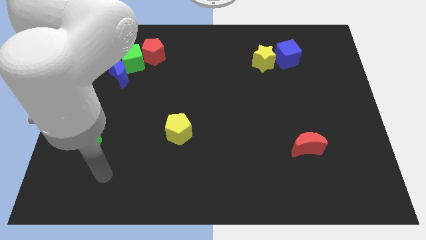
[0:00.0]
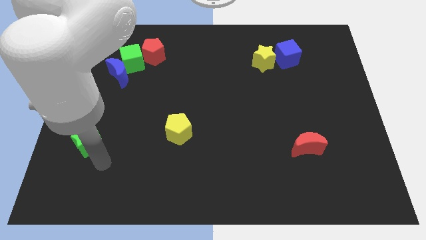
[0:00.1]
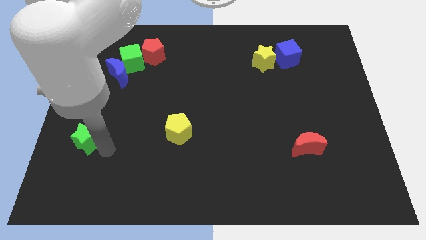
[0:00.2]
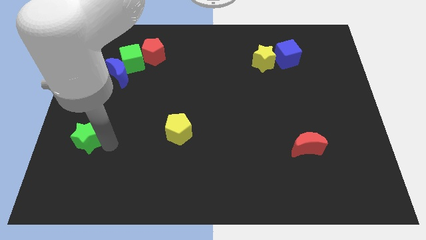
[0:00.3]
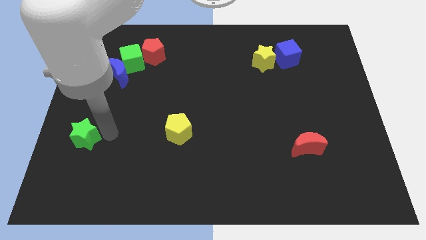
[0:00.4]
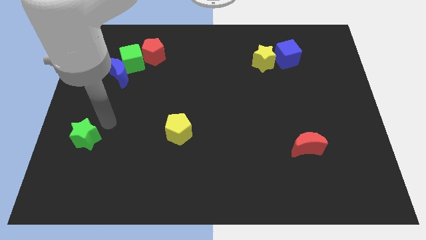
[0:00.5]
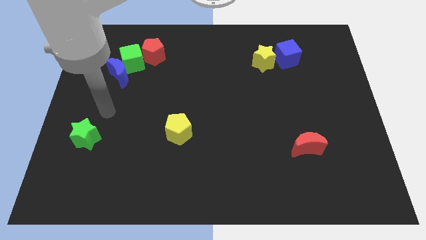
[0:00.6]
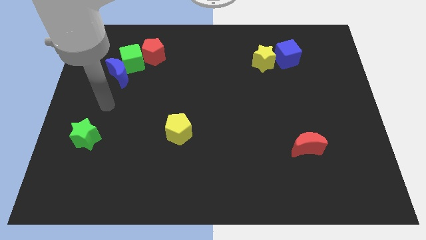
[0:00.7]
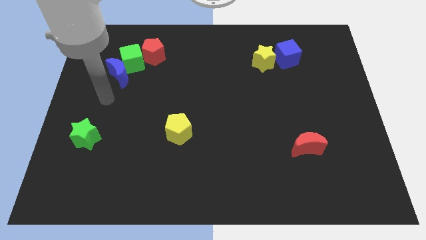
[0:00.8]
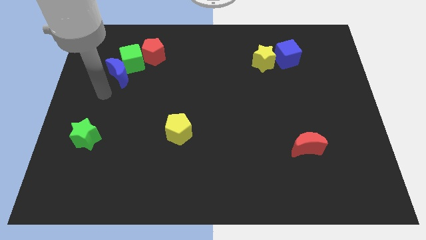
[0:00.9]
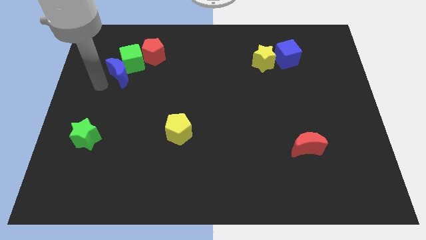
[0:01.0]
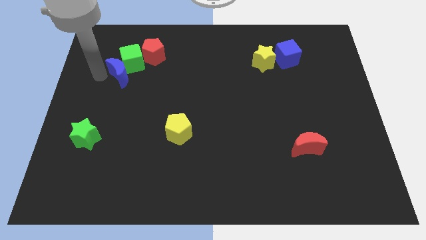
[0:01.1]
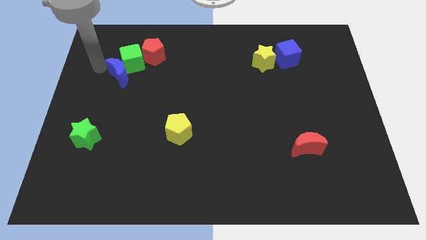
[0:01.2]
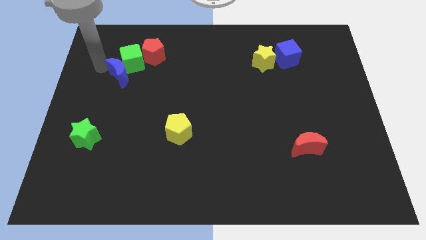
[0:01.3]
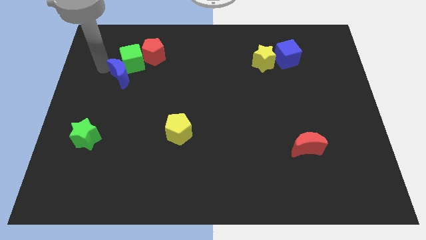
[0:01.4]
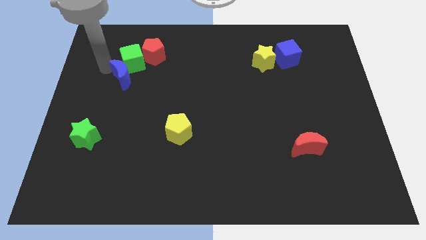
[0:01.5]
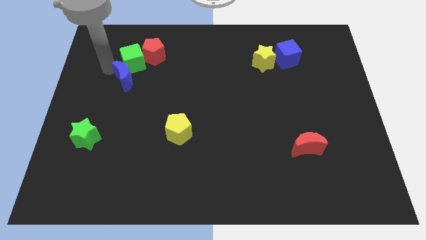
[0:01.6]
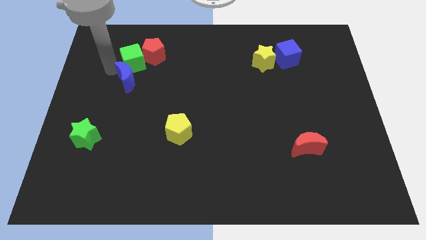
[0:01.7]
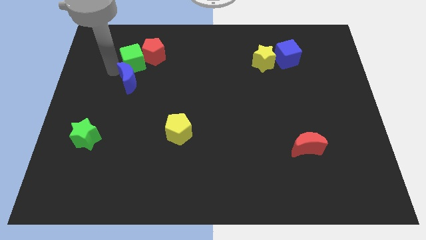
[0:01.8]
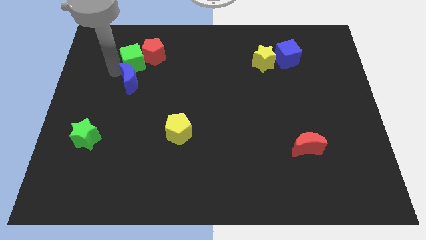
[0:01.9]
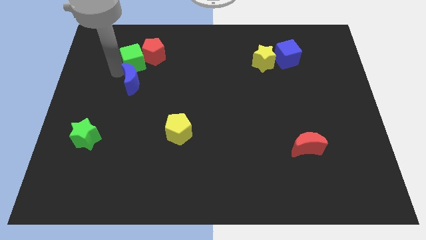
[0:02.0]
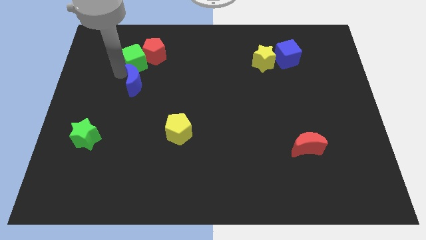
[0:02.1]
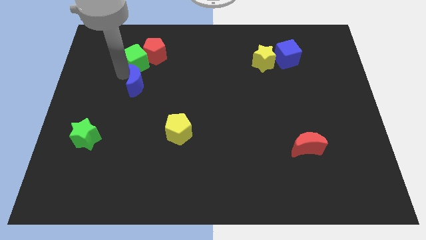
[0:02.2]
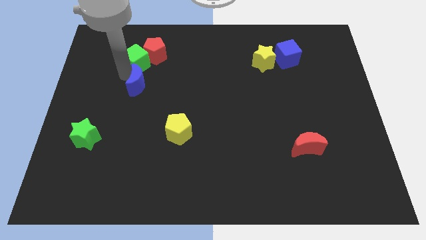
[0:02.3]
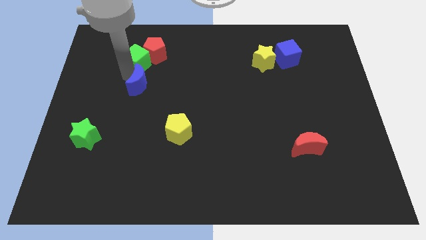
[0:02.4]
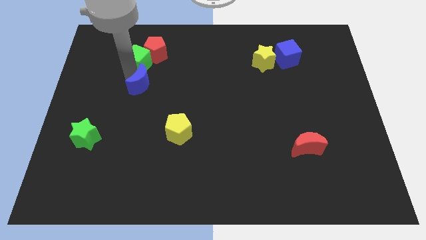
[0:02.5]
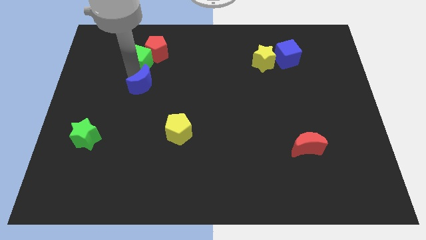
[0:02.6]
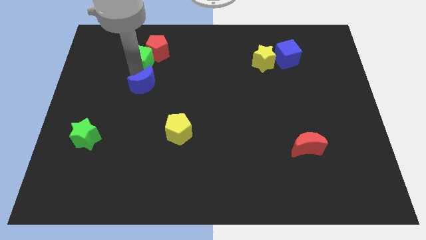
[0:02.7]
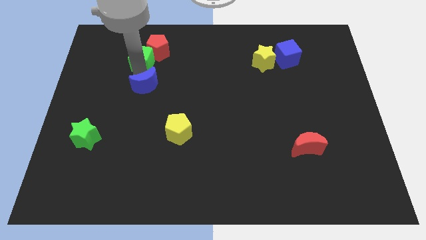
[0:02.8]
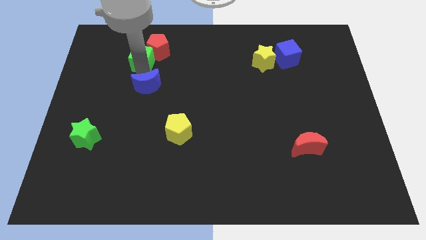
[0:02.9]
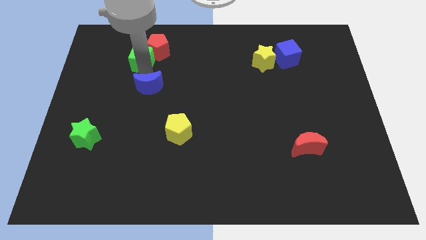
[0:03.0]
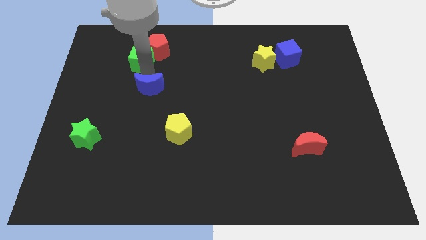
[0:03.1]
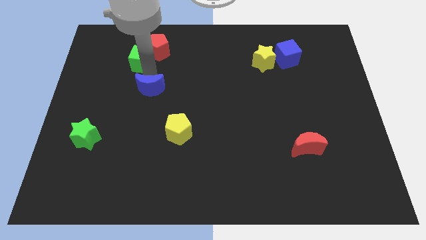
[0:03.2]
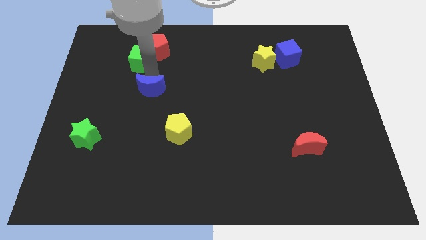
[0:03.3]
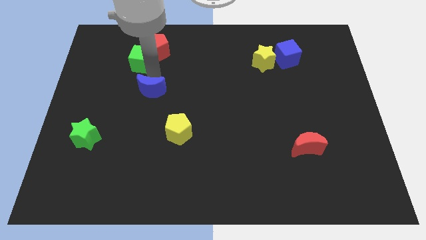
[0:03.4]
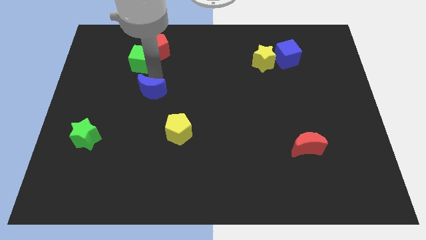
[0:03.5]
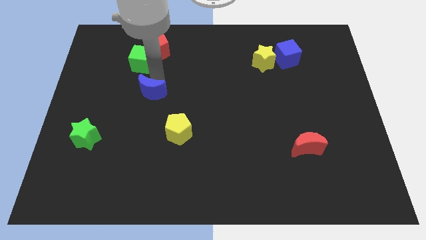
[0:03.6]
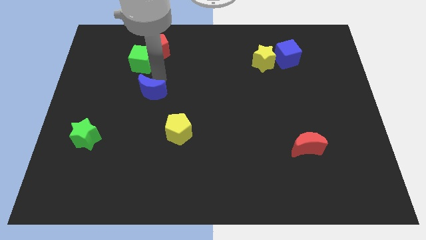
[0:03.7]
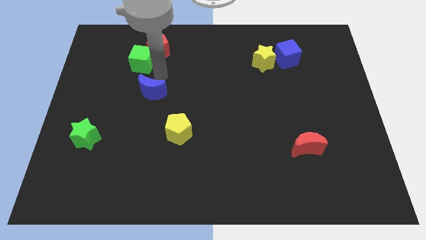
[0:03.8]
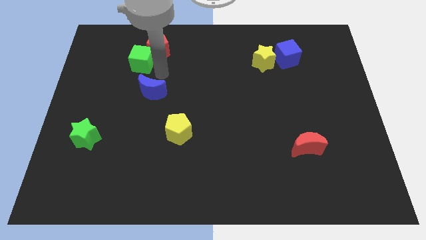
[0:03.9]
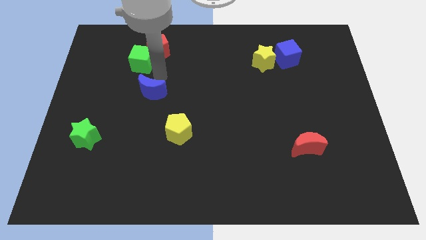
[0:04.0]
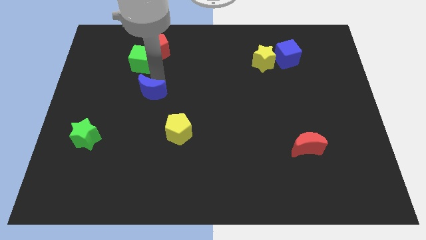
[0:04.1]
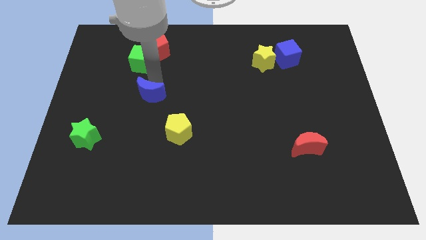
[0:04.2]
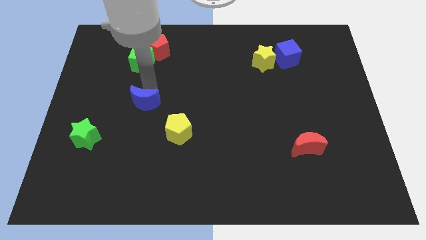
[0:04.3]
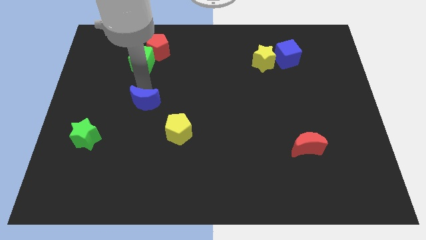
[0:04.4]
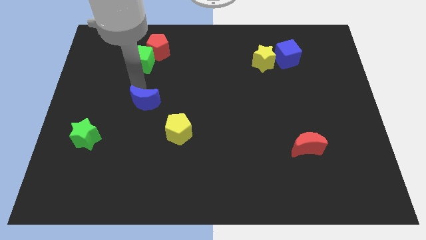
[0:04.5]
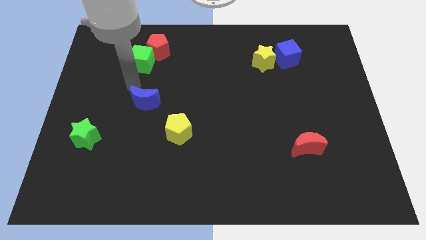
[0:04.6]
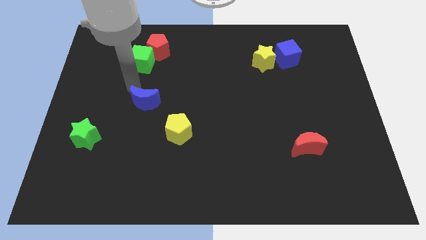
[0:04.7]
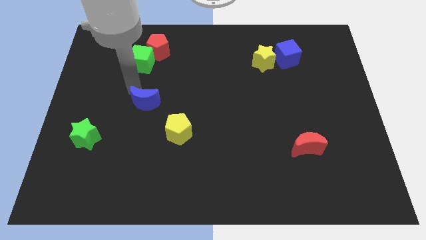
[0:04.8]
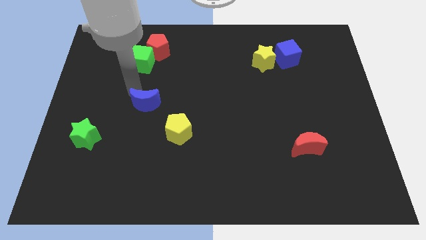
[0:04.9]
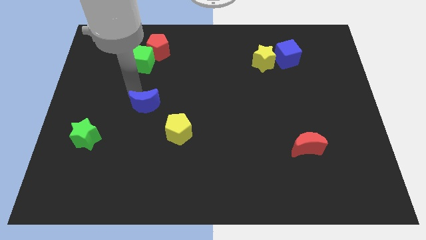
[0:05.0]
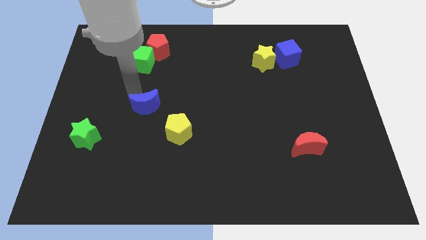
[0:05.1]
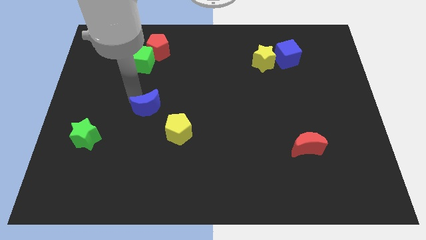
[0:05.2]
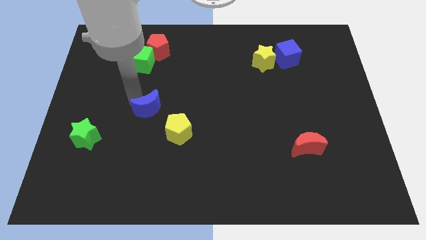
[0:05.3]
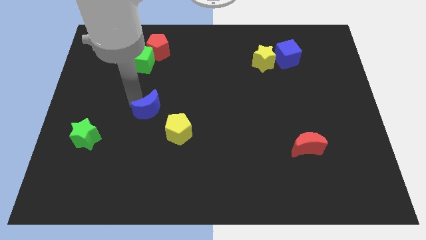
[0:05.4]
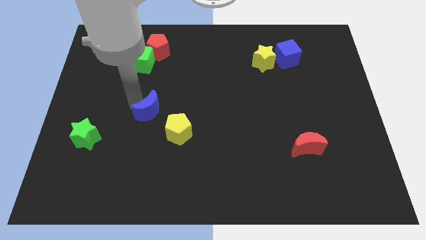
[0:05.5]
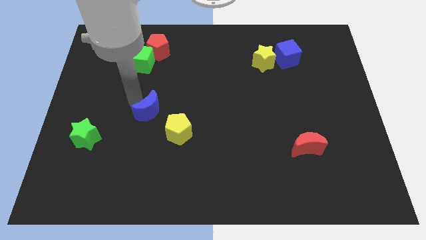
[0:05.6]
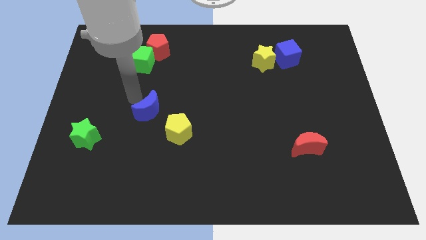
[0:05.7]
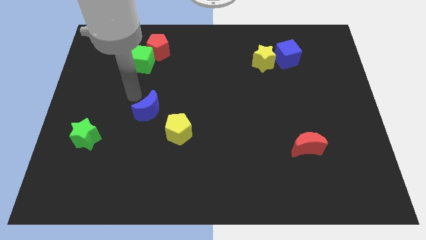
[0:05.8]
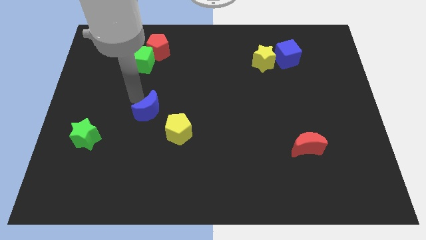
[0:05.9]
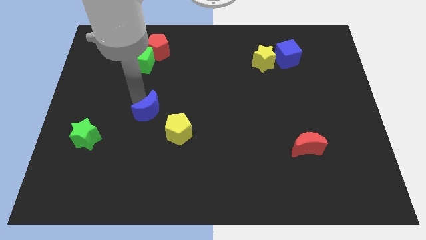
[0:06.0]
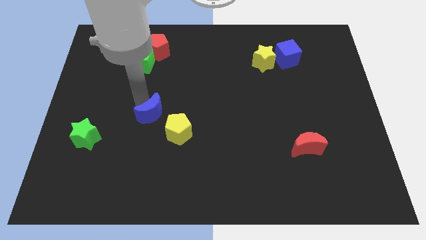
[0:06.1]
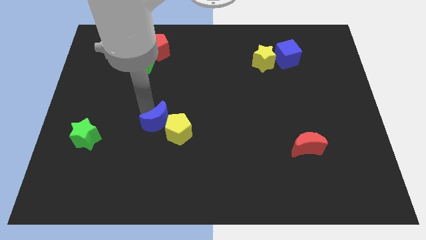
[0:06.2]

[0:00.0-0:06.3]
slide the blue moon next to the yellow pentagon
